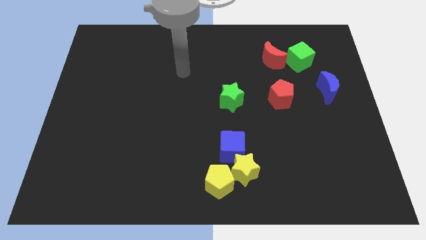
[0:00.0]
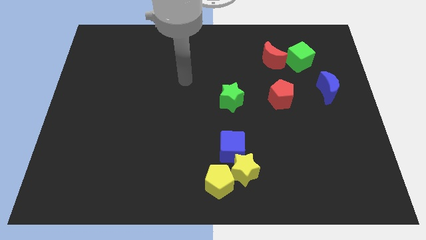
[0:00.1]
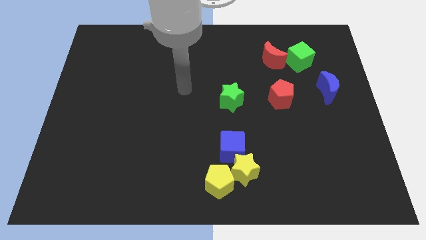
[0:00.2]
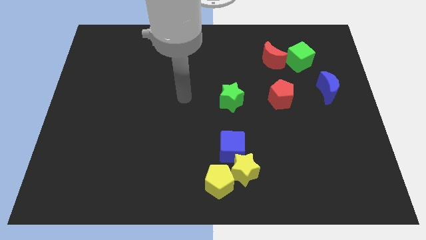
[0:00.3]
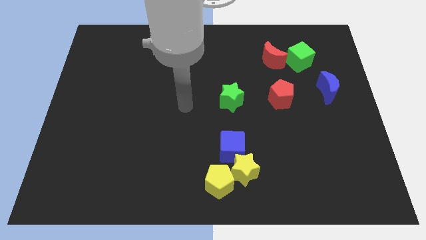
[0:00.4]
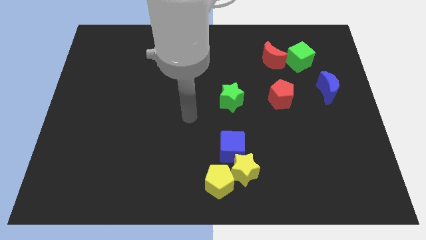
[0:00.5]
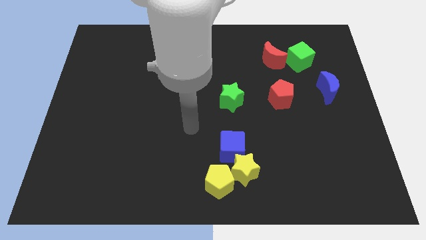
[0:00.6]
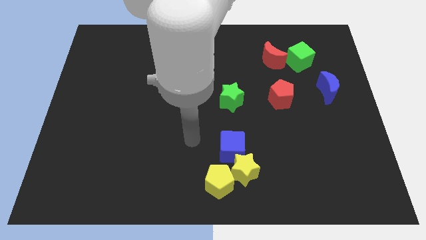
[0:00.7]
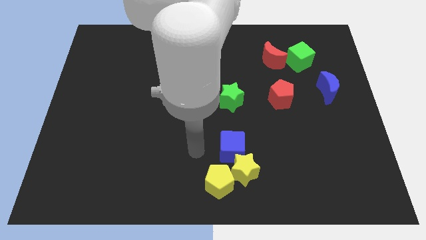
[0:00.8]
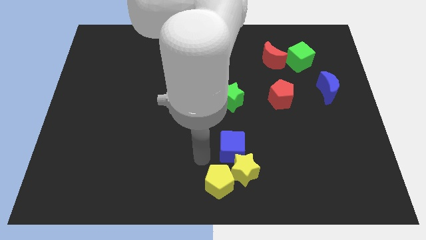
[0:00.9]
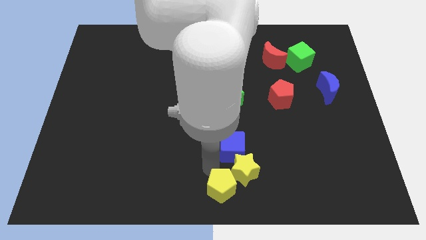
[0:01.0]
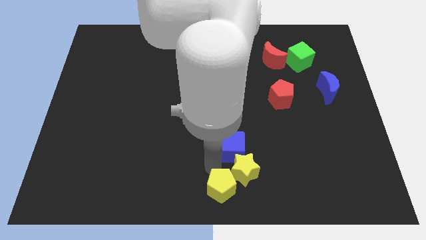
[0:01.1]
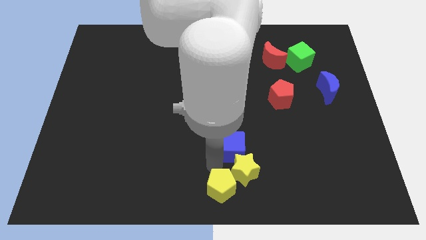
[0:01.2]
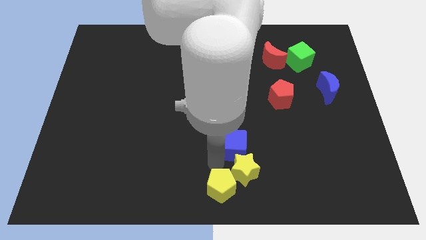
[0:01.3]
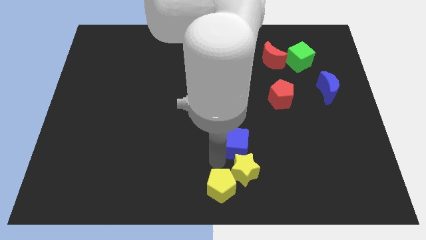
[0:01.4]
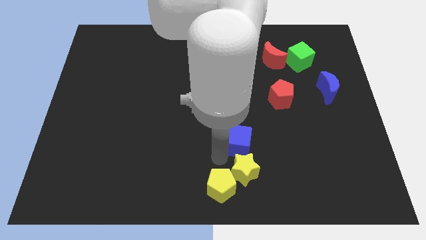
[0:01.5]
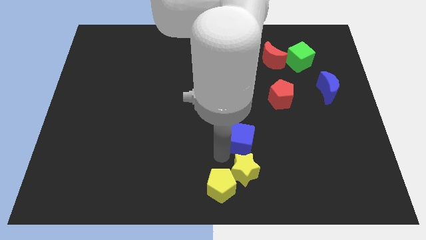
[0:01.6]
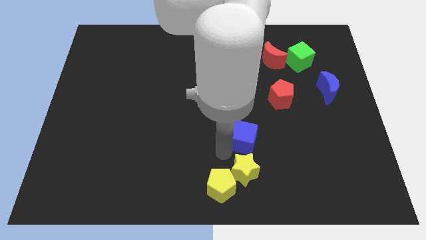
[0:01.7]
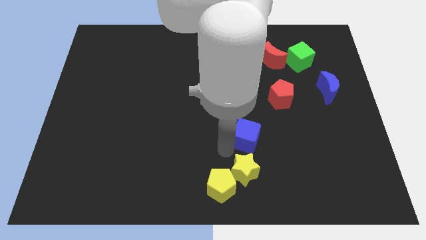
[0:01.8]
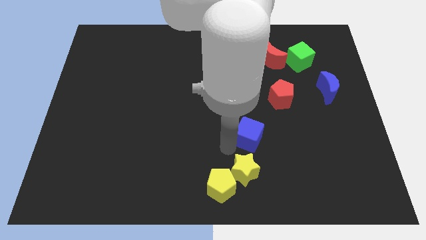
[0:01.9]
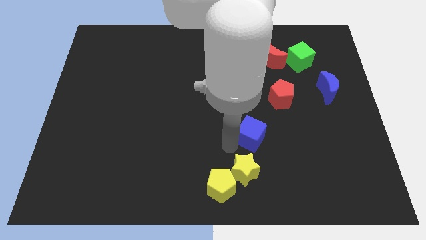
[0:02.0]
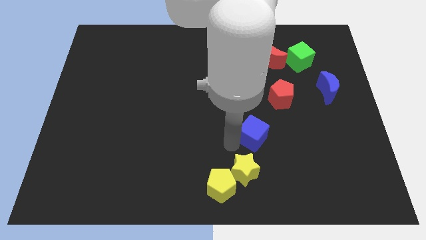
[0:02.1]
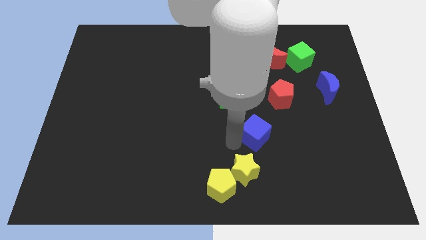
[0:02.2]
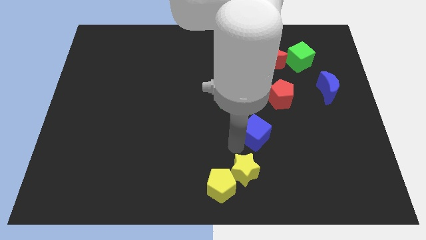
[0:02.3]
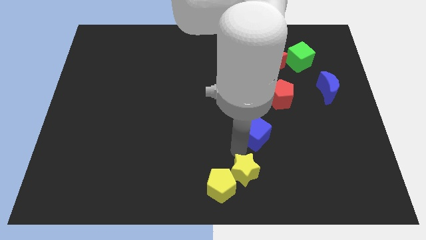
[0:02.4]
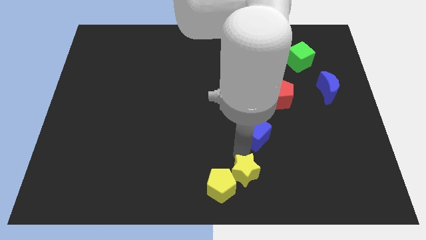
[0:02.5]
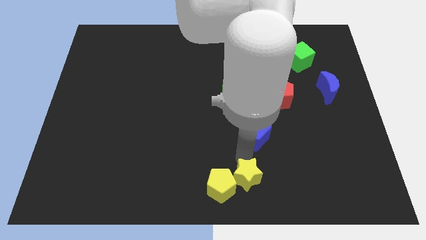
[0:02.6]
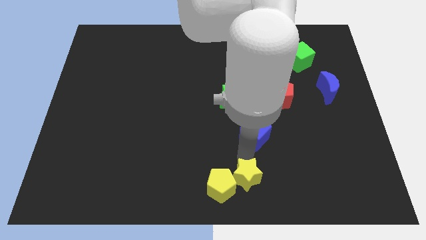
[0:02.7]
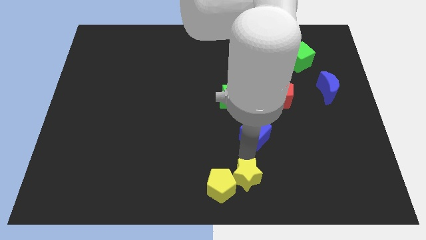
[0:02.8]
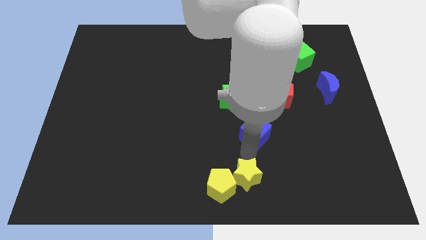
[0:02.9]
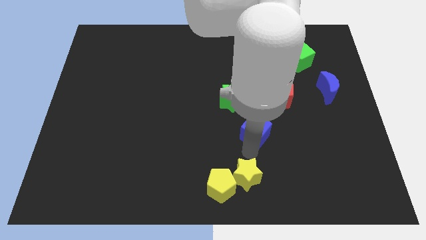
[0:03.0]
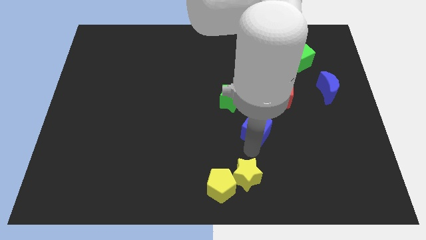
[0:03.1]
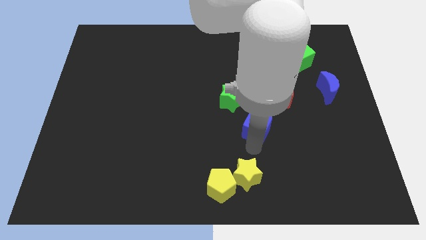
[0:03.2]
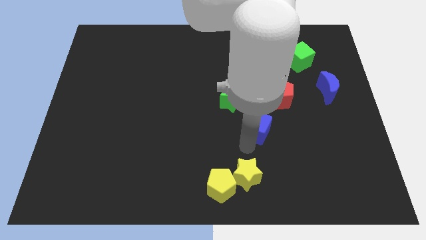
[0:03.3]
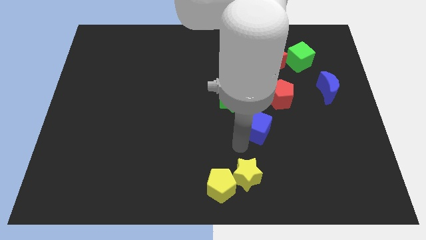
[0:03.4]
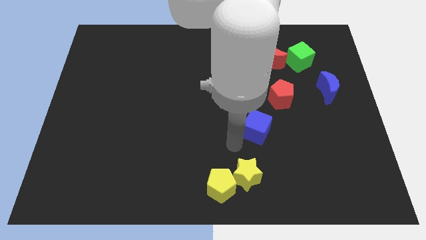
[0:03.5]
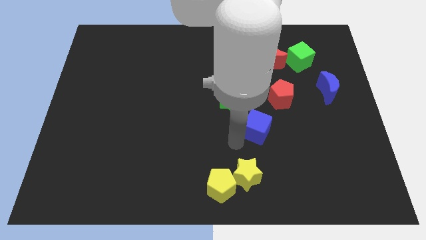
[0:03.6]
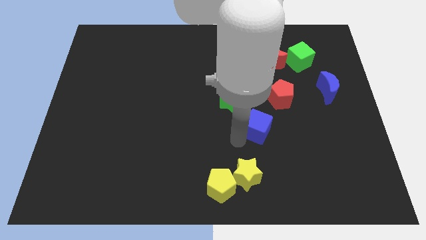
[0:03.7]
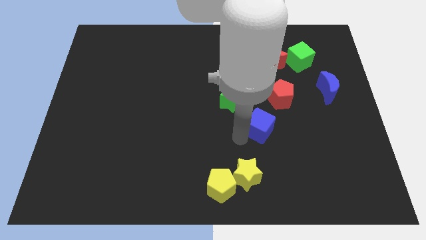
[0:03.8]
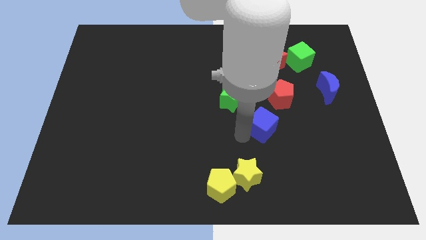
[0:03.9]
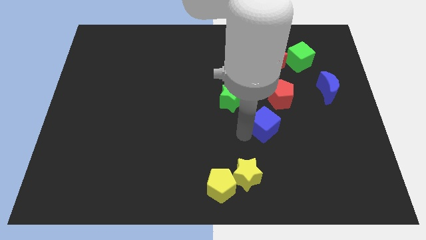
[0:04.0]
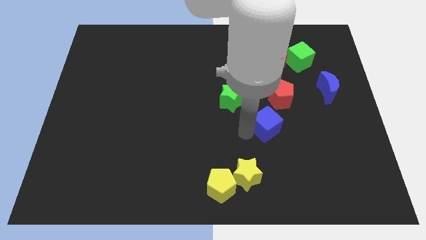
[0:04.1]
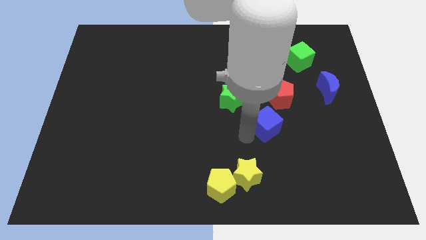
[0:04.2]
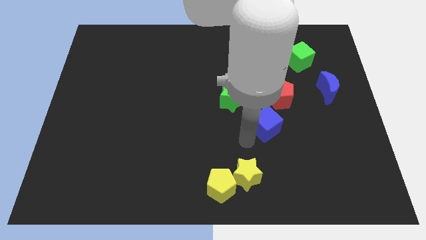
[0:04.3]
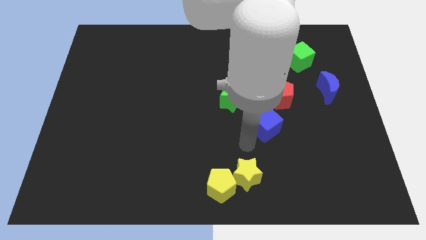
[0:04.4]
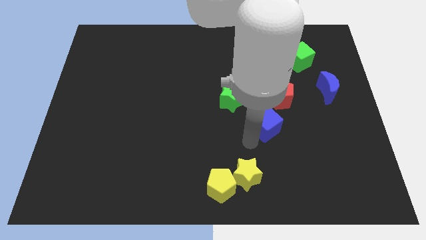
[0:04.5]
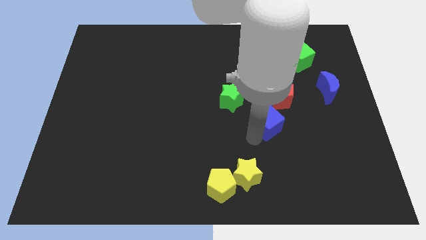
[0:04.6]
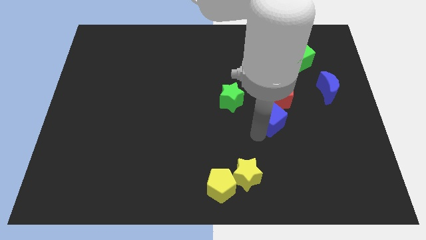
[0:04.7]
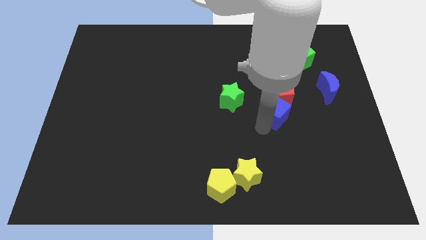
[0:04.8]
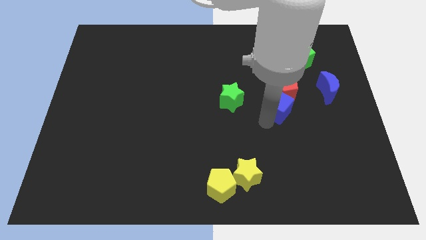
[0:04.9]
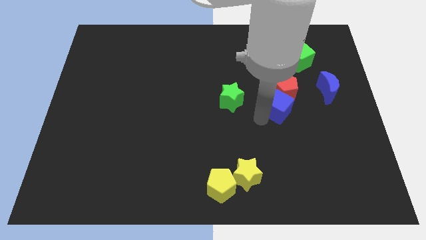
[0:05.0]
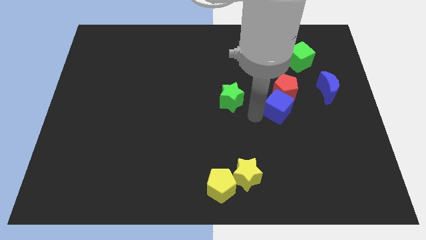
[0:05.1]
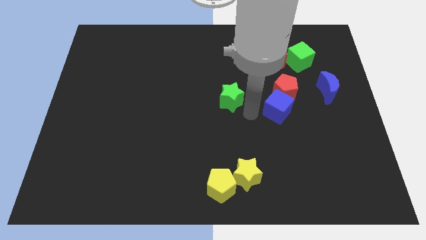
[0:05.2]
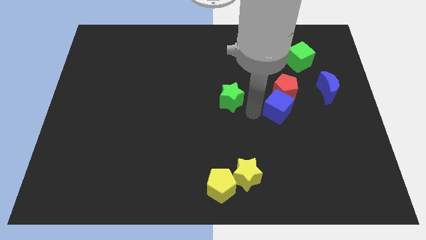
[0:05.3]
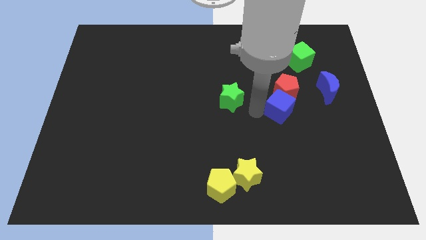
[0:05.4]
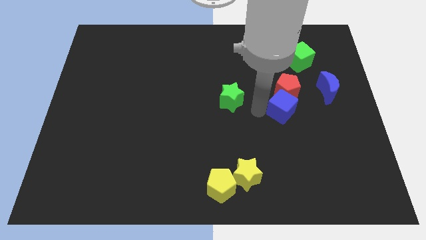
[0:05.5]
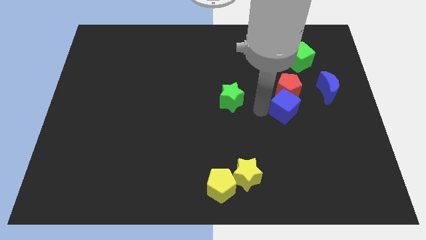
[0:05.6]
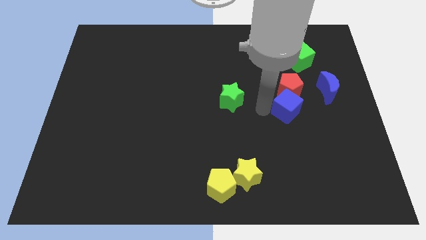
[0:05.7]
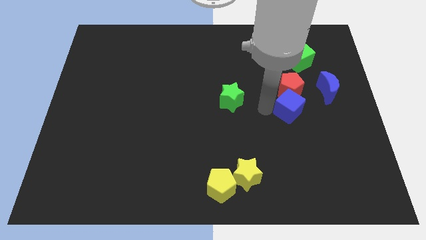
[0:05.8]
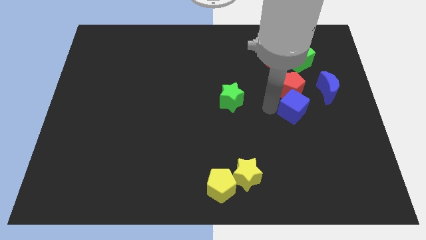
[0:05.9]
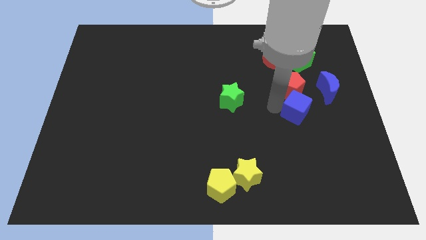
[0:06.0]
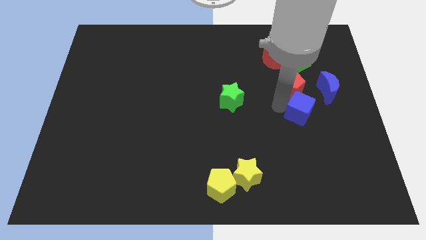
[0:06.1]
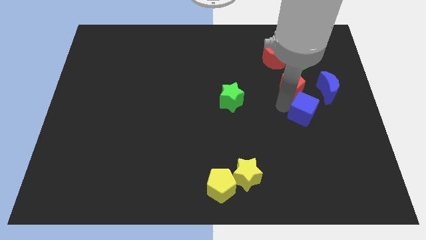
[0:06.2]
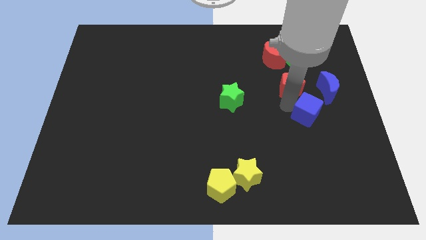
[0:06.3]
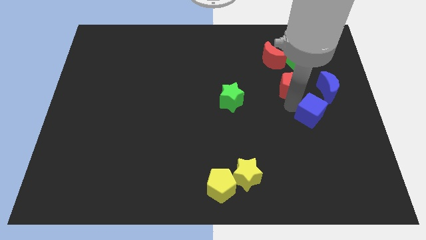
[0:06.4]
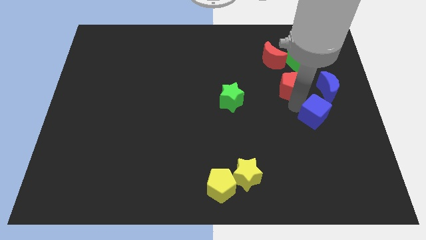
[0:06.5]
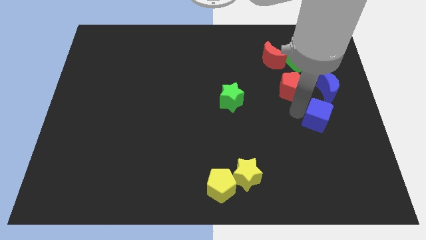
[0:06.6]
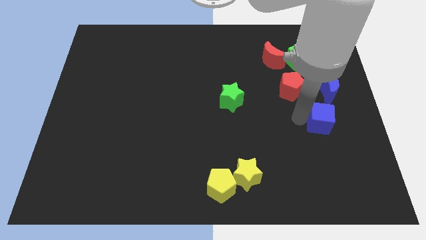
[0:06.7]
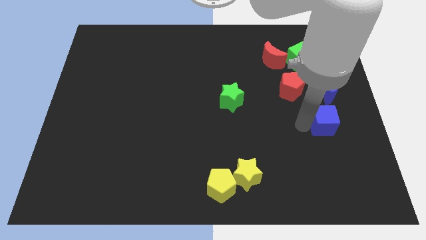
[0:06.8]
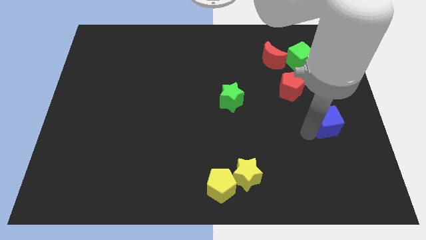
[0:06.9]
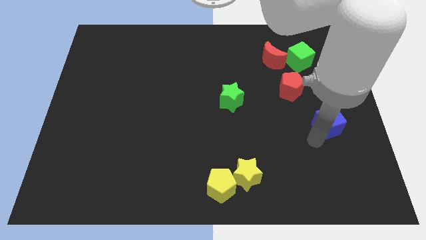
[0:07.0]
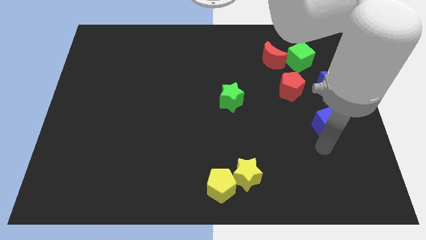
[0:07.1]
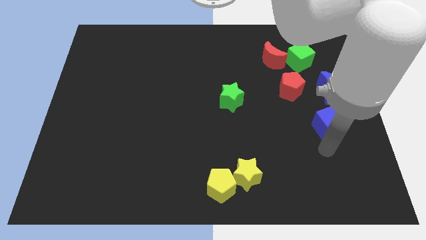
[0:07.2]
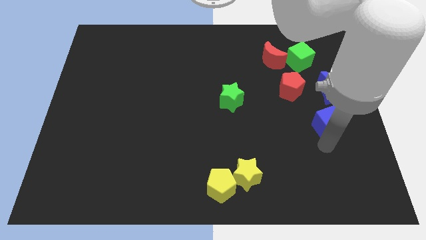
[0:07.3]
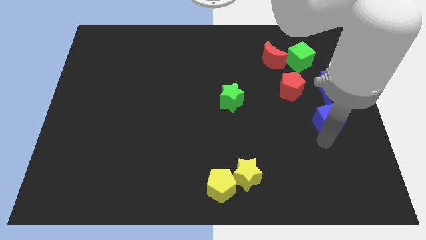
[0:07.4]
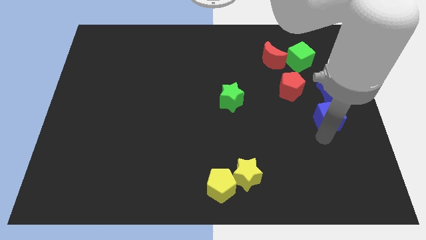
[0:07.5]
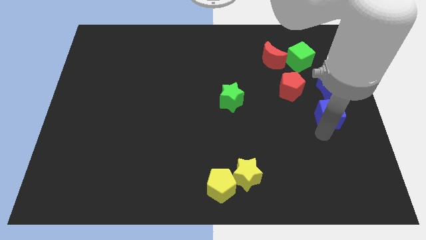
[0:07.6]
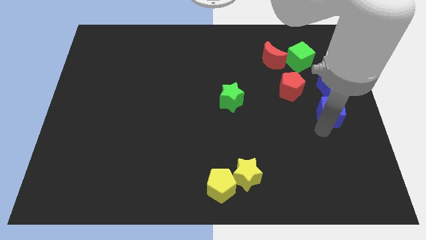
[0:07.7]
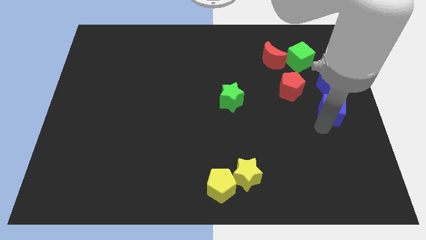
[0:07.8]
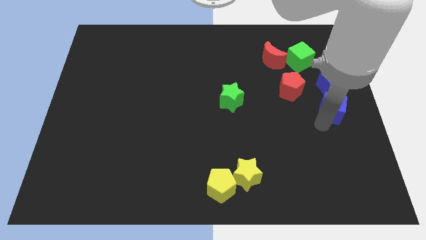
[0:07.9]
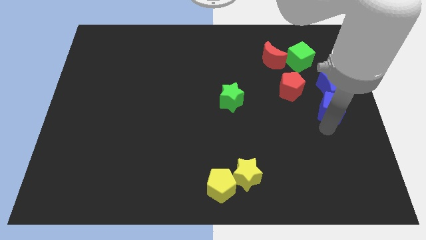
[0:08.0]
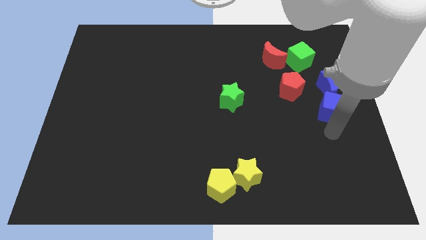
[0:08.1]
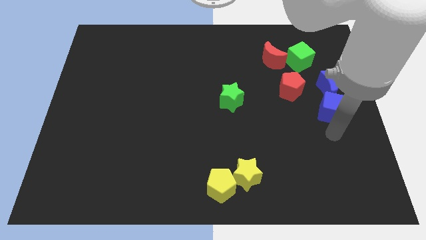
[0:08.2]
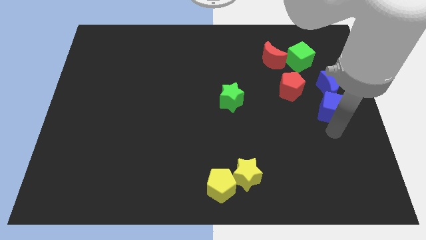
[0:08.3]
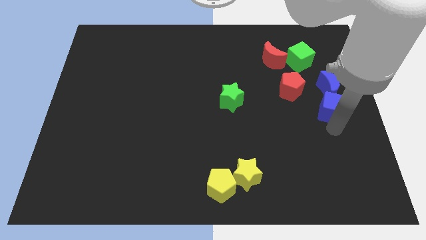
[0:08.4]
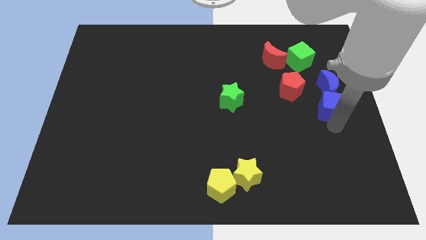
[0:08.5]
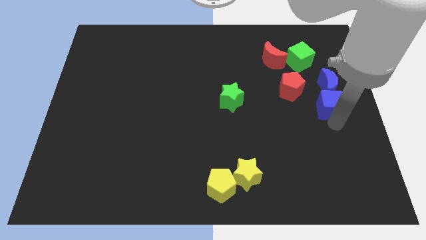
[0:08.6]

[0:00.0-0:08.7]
put the blue cube close to the blue moon
